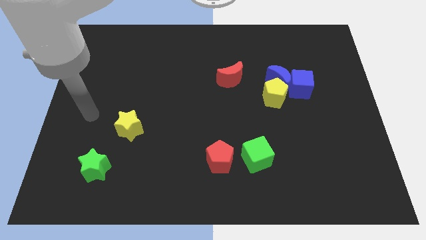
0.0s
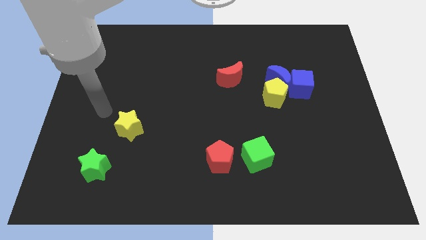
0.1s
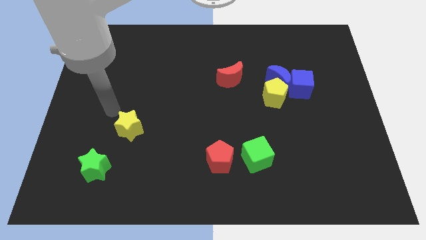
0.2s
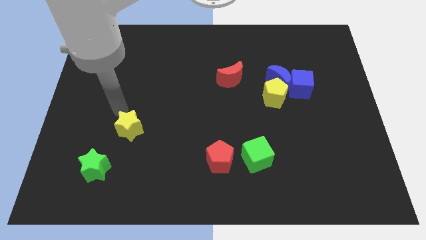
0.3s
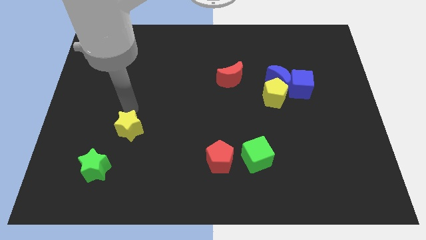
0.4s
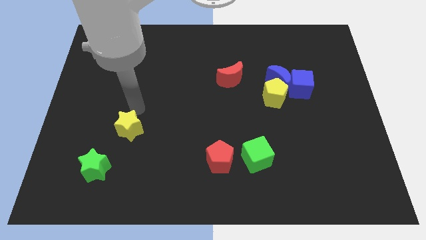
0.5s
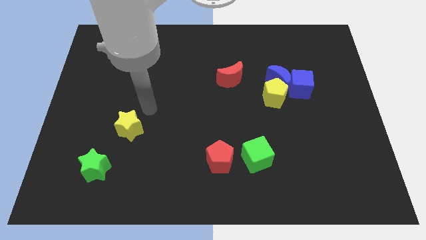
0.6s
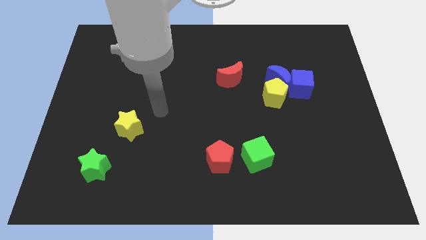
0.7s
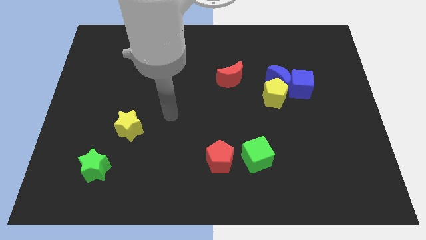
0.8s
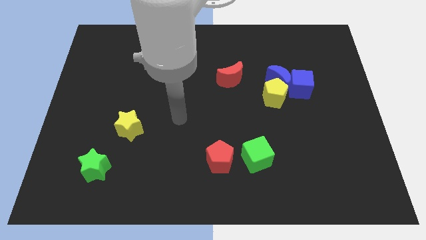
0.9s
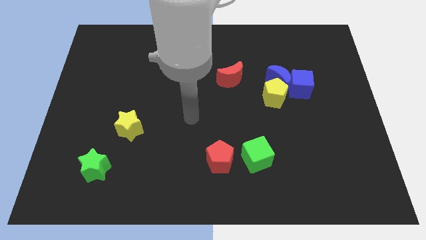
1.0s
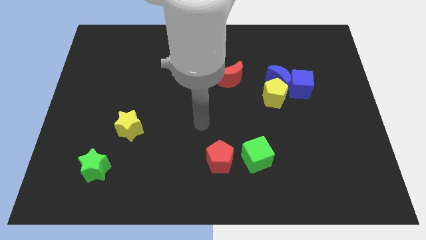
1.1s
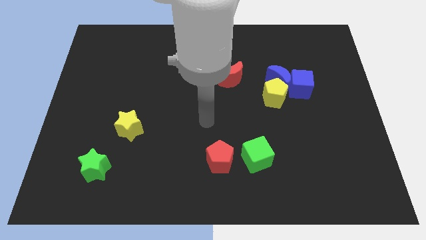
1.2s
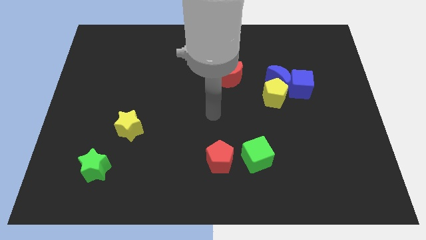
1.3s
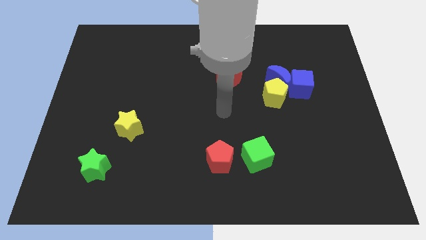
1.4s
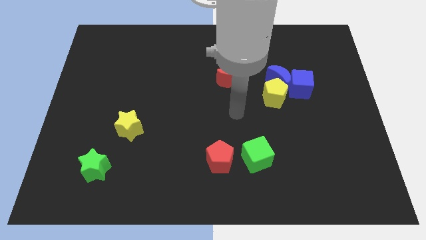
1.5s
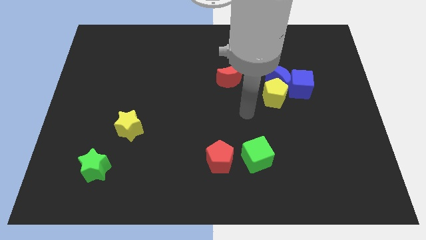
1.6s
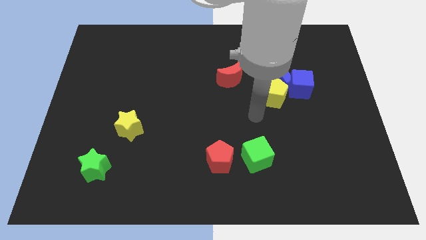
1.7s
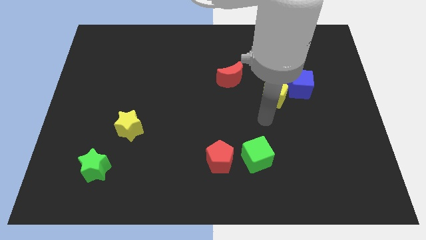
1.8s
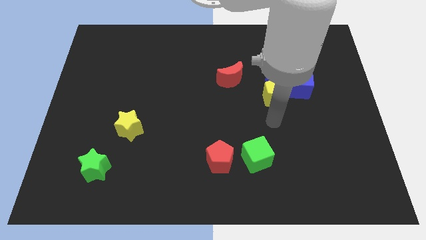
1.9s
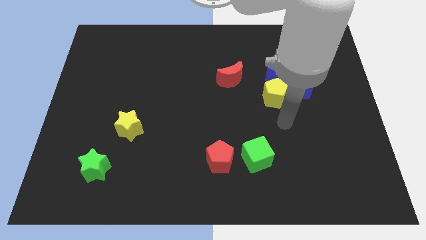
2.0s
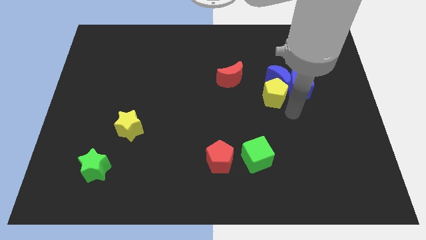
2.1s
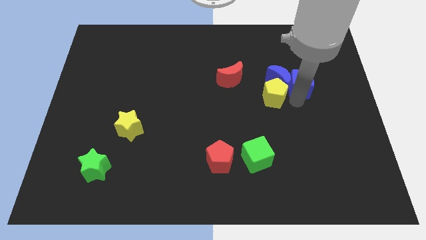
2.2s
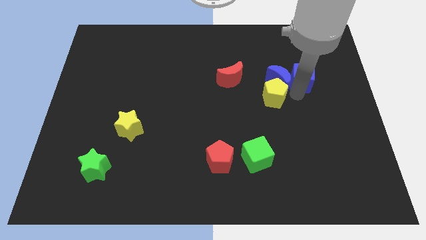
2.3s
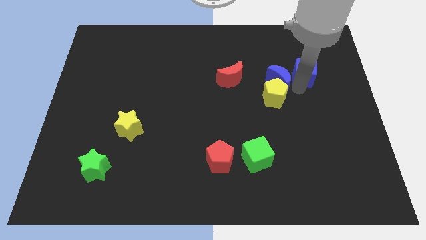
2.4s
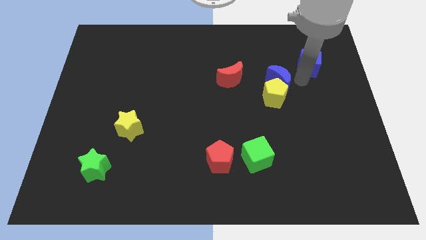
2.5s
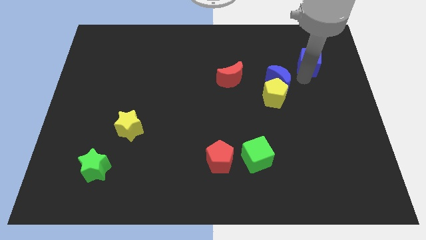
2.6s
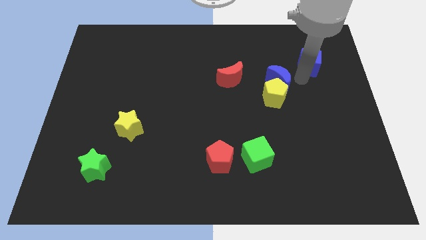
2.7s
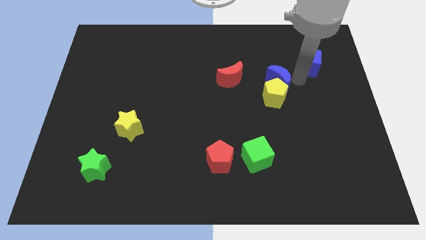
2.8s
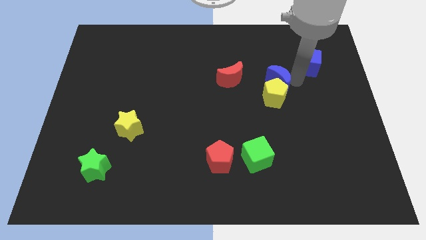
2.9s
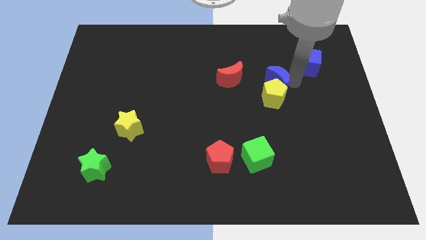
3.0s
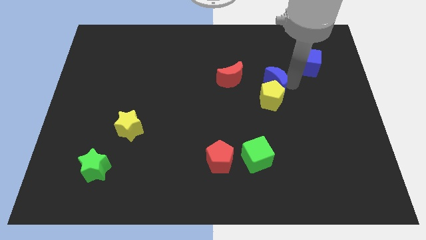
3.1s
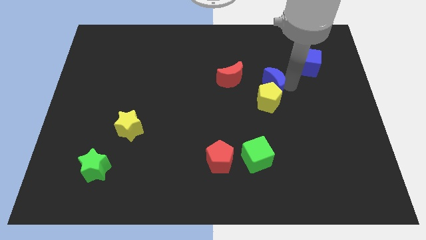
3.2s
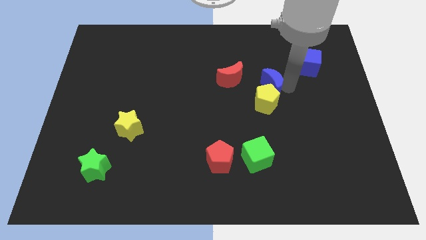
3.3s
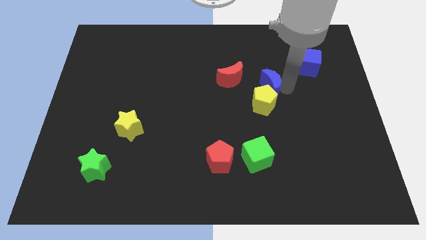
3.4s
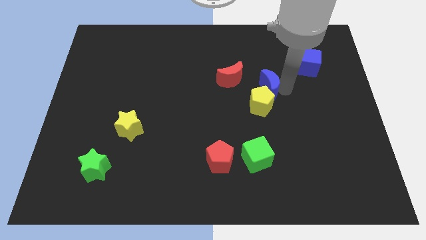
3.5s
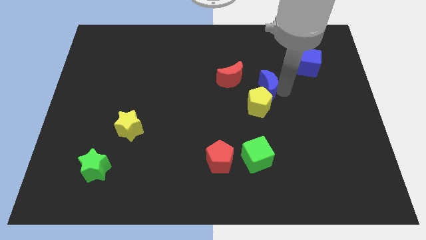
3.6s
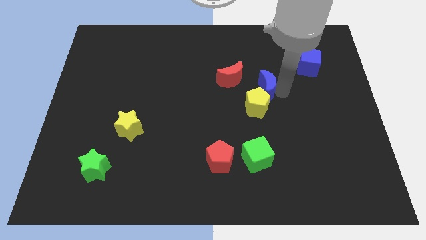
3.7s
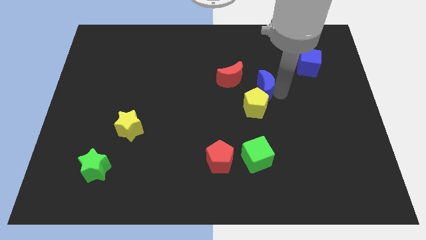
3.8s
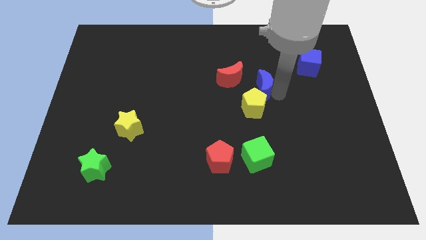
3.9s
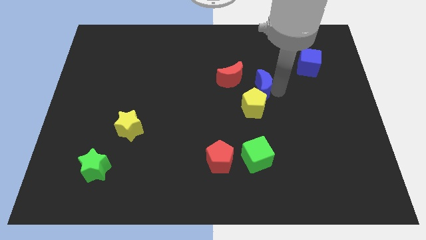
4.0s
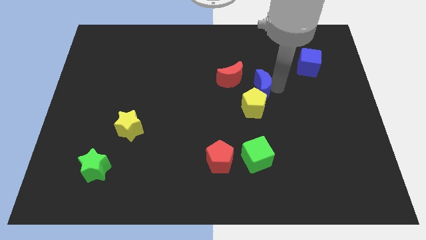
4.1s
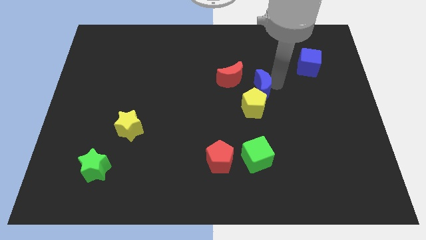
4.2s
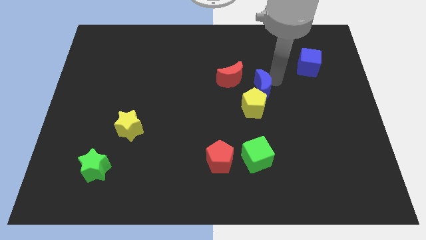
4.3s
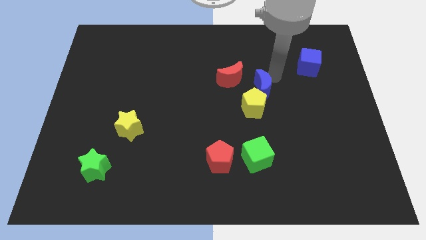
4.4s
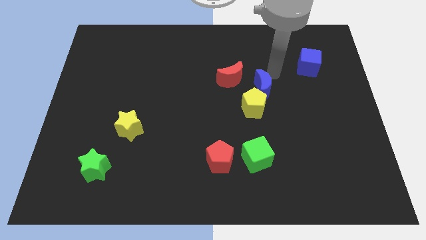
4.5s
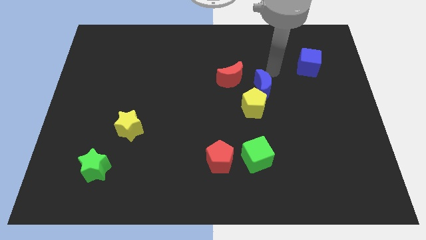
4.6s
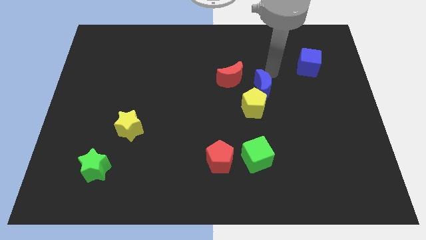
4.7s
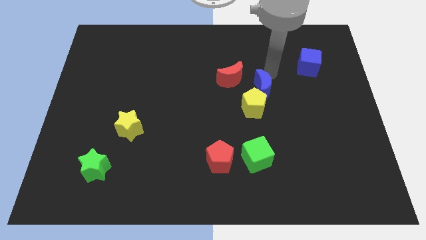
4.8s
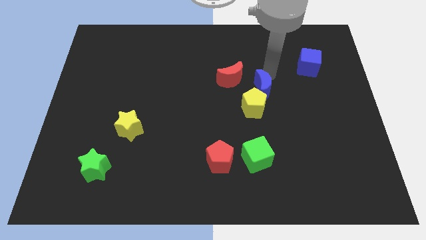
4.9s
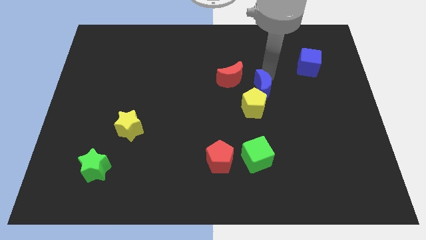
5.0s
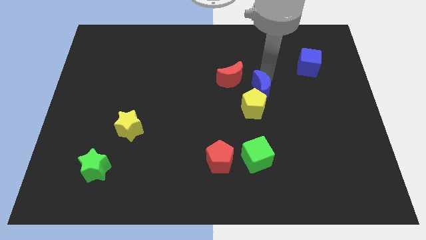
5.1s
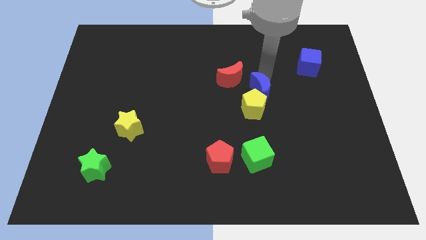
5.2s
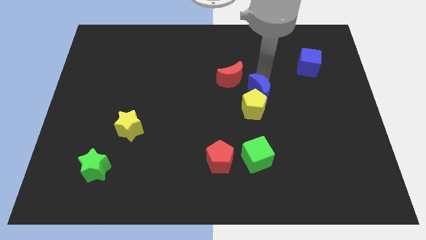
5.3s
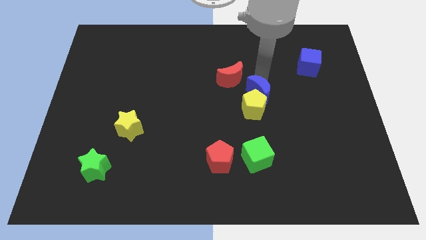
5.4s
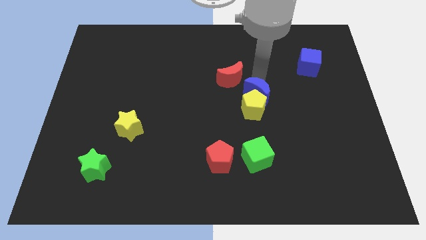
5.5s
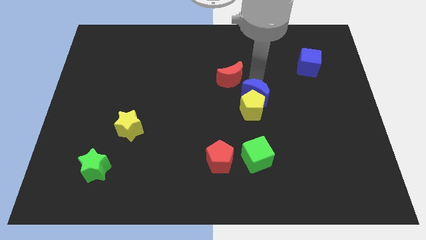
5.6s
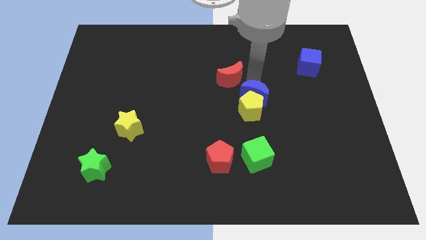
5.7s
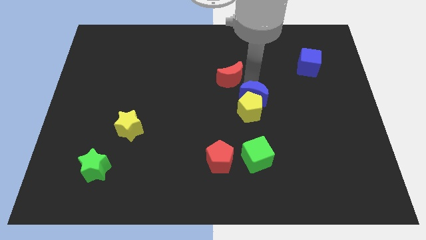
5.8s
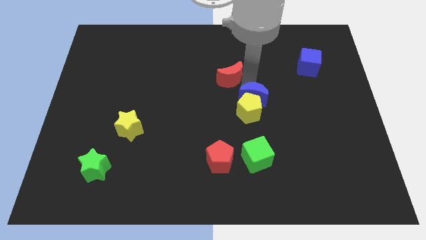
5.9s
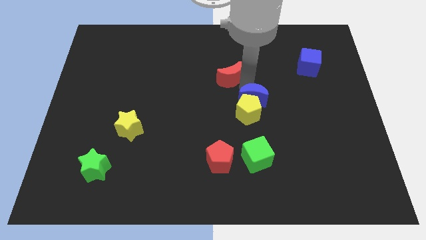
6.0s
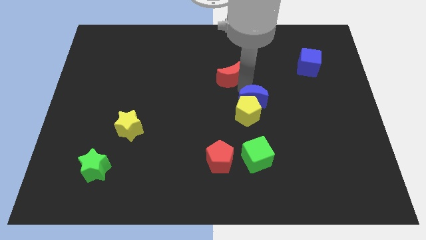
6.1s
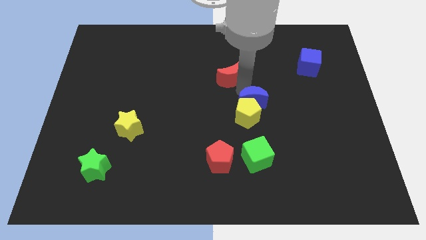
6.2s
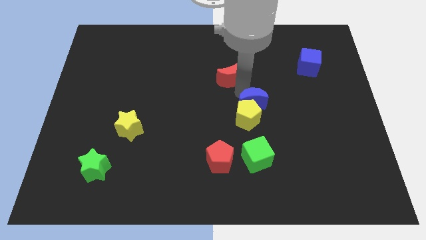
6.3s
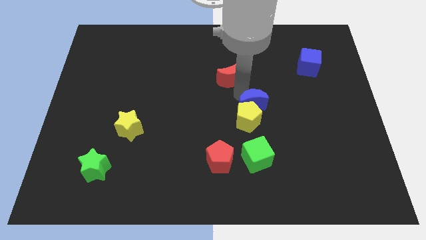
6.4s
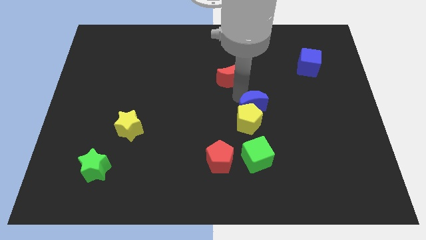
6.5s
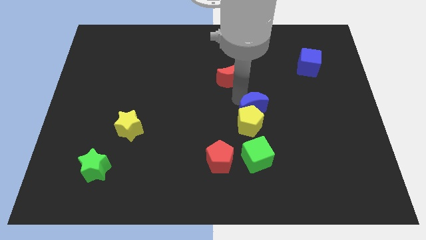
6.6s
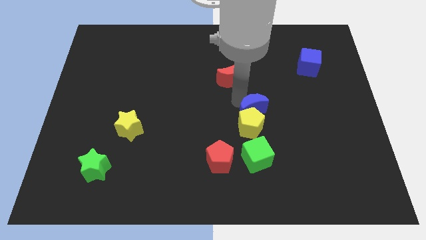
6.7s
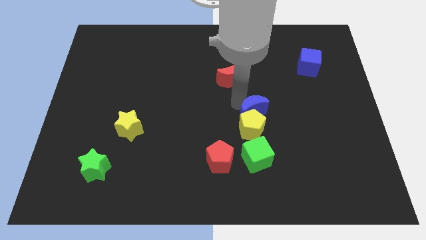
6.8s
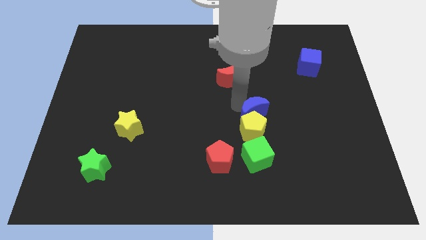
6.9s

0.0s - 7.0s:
slightly slide the blue moon downwards

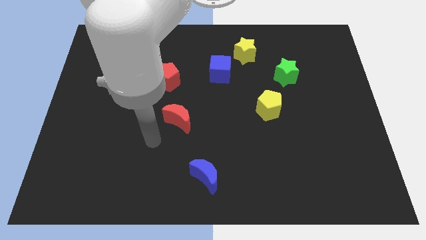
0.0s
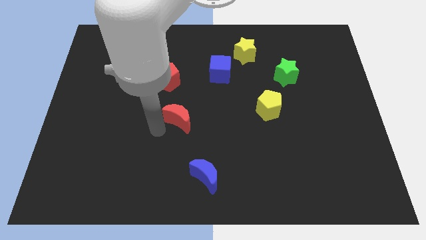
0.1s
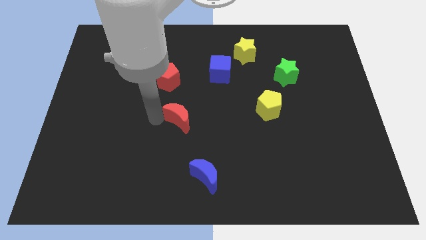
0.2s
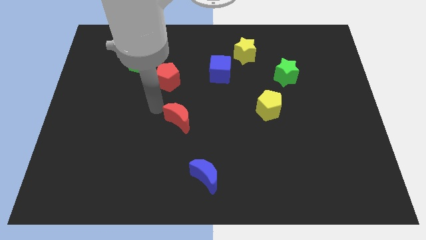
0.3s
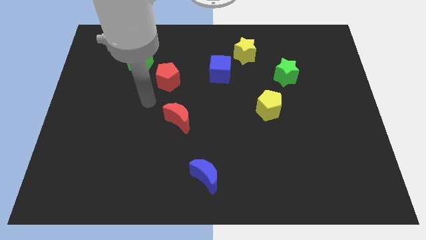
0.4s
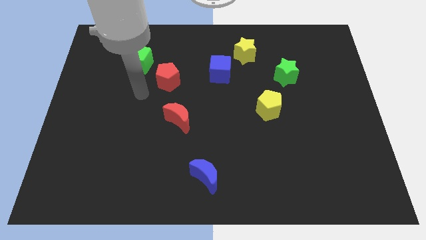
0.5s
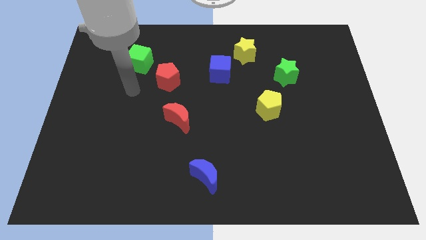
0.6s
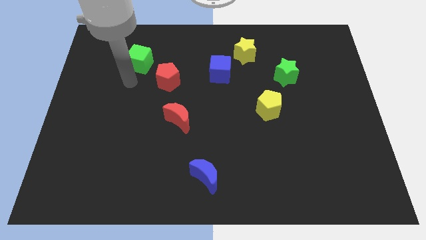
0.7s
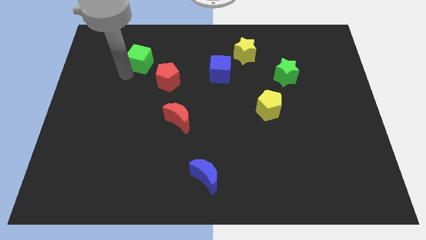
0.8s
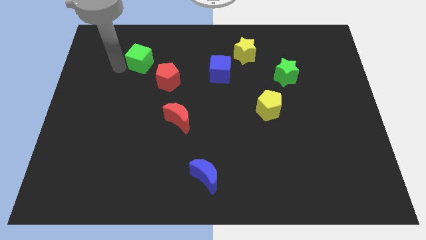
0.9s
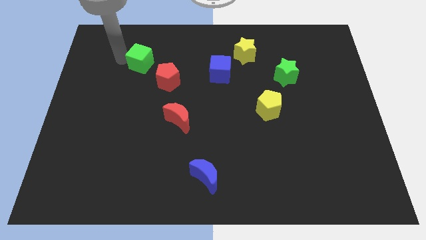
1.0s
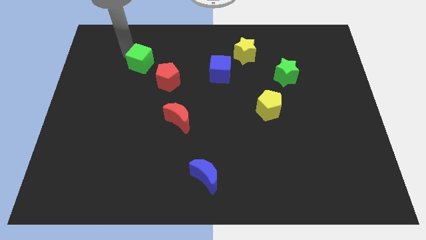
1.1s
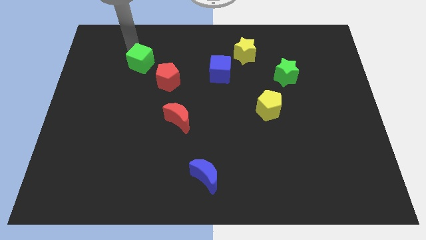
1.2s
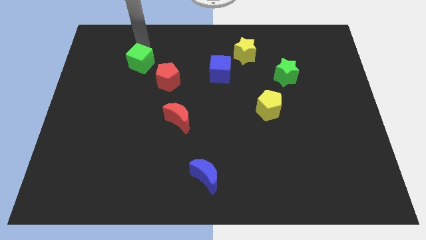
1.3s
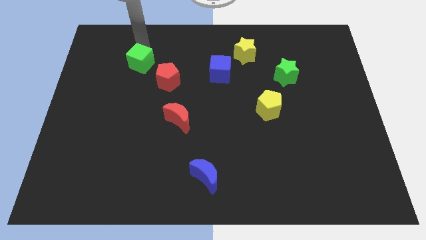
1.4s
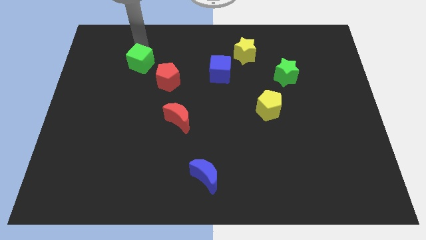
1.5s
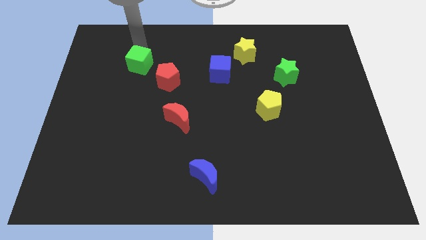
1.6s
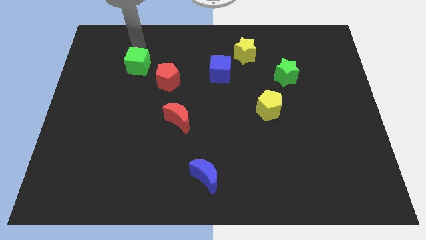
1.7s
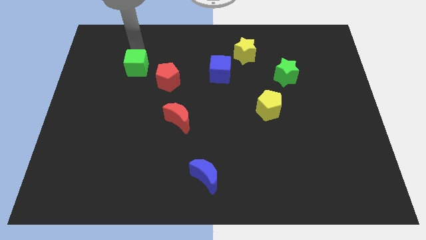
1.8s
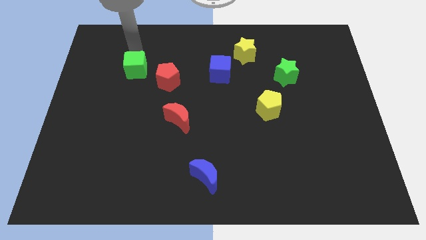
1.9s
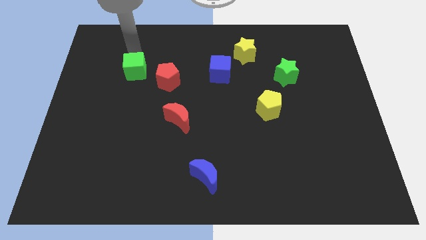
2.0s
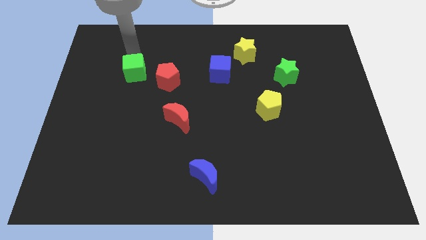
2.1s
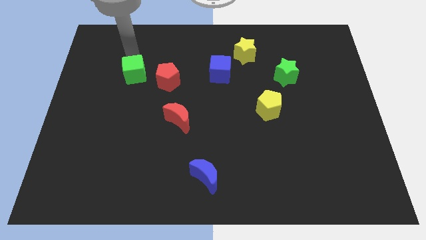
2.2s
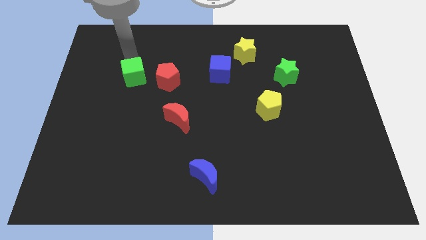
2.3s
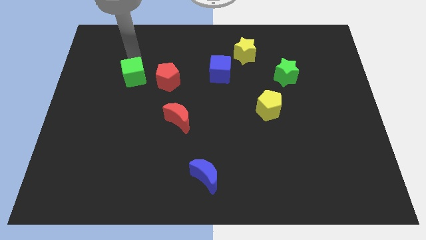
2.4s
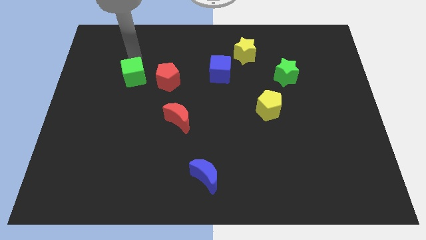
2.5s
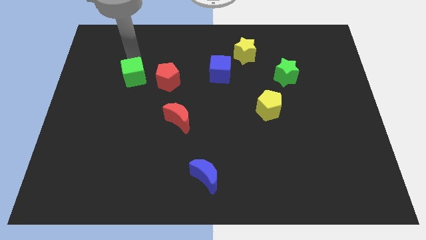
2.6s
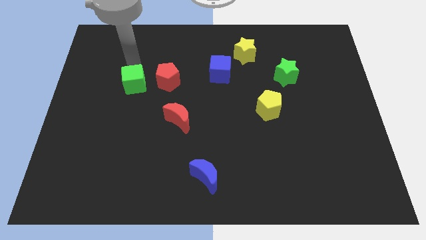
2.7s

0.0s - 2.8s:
slightly slide the green cube down
